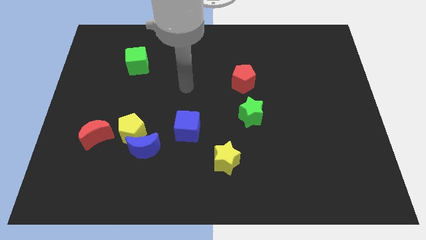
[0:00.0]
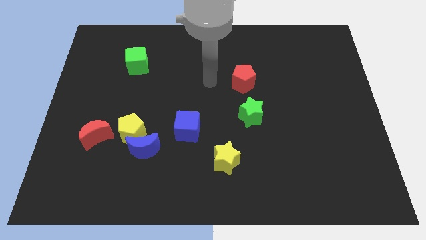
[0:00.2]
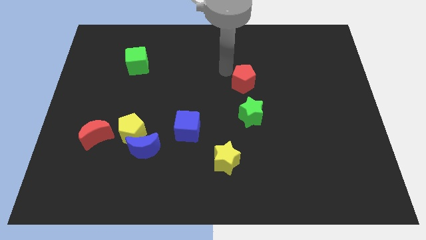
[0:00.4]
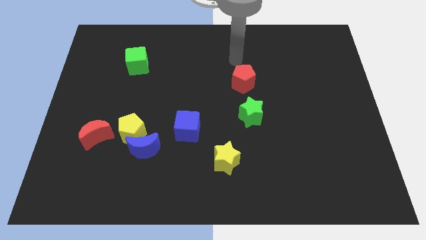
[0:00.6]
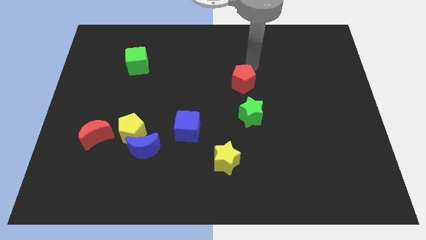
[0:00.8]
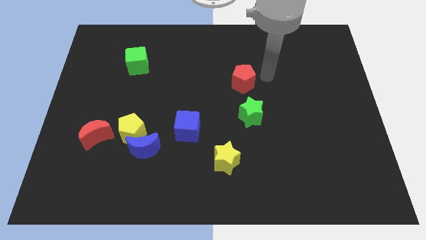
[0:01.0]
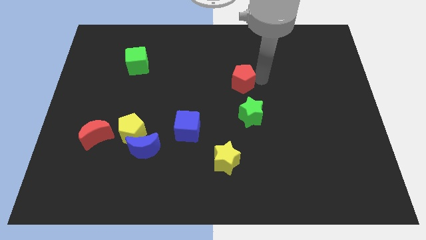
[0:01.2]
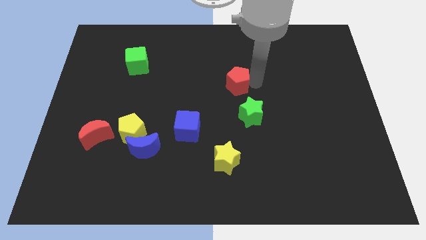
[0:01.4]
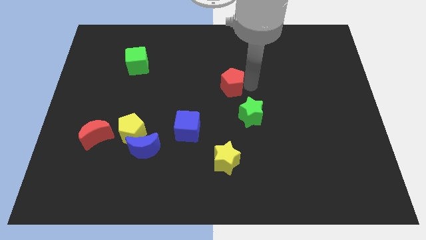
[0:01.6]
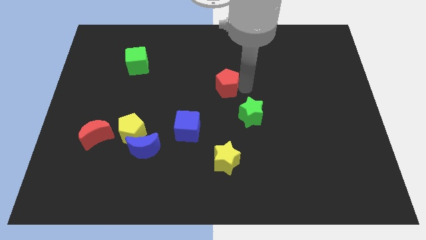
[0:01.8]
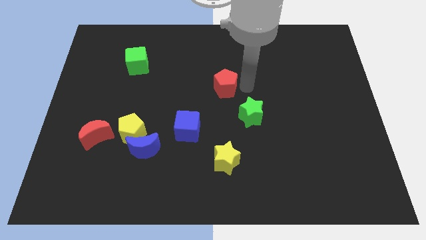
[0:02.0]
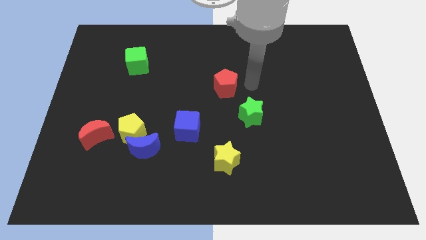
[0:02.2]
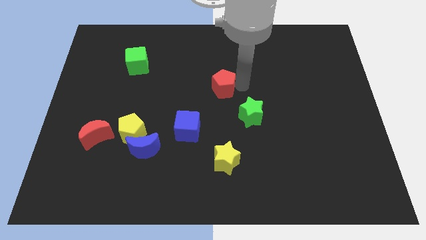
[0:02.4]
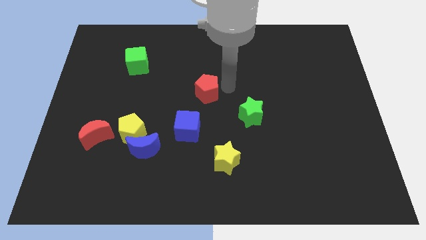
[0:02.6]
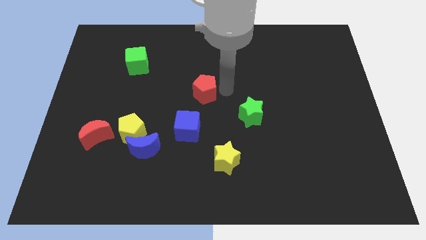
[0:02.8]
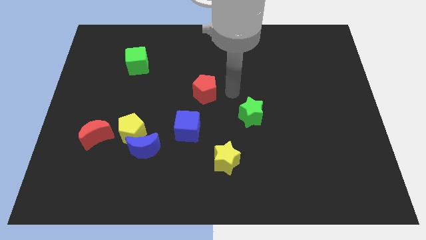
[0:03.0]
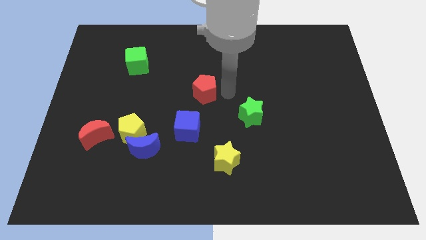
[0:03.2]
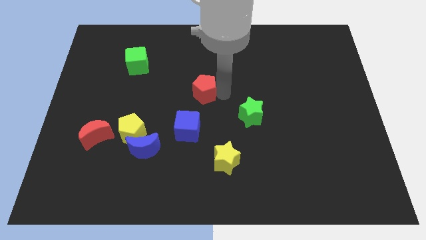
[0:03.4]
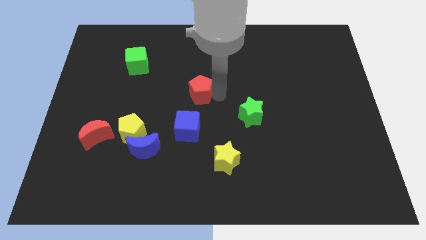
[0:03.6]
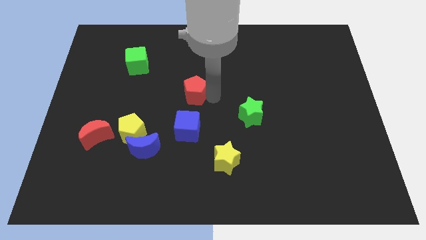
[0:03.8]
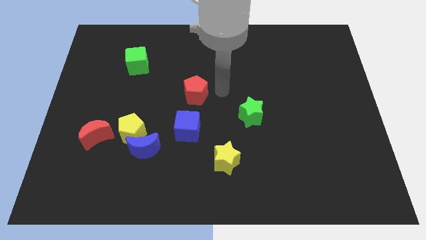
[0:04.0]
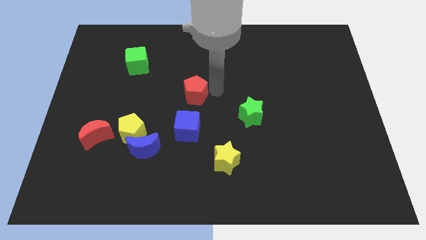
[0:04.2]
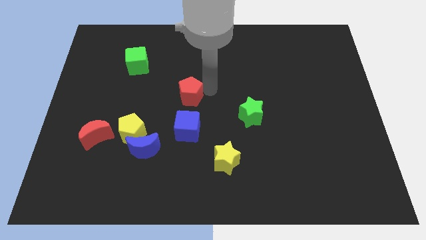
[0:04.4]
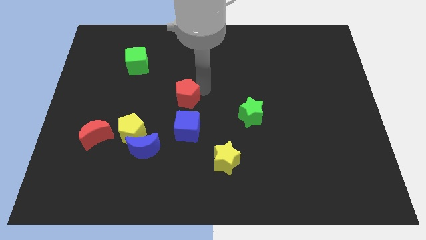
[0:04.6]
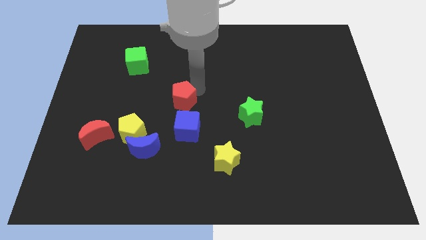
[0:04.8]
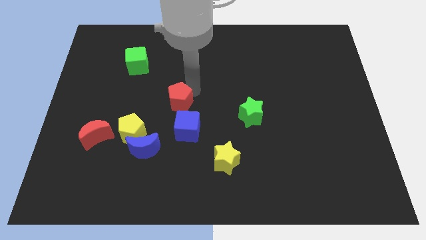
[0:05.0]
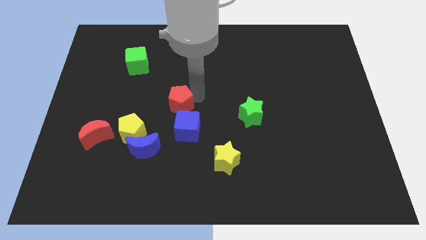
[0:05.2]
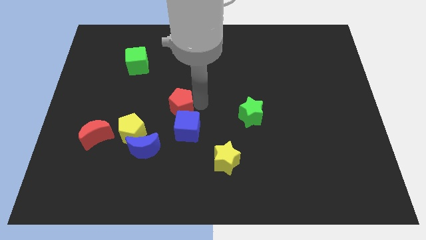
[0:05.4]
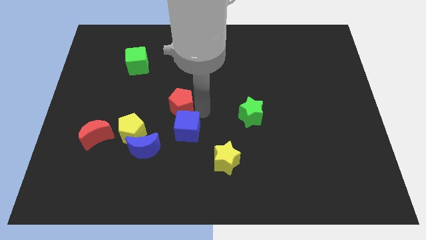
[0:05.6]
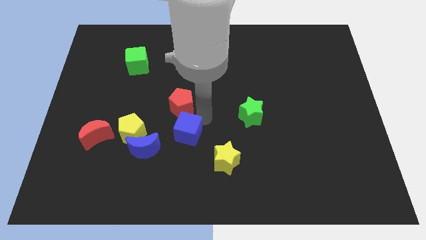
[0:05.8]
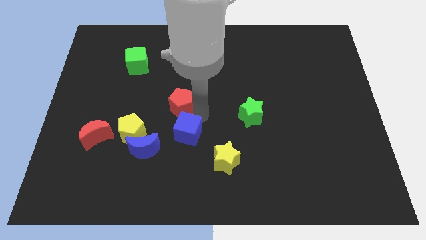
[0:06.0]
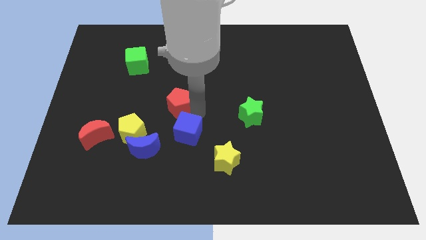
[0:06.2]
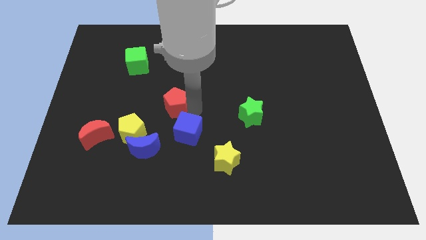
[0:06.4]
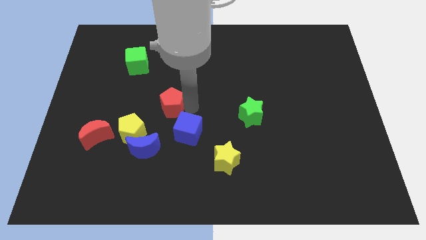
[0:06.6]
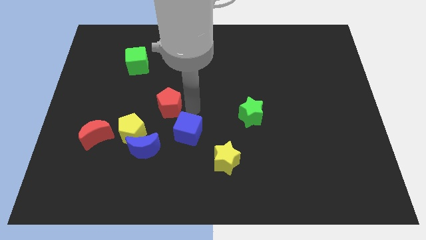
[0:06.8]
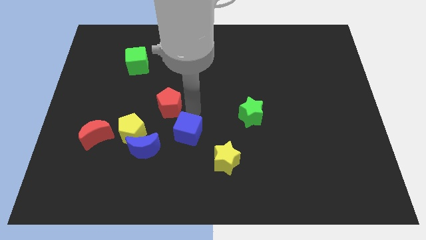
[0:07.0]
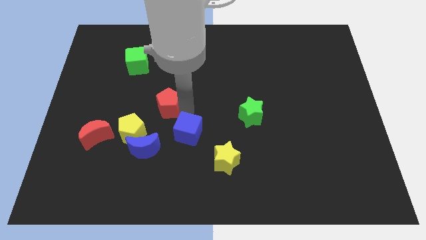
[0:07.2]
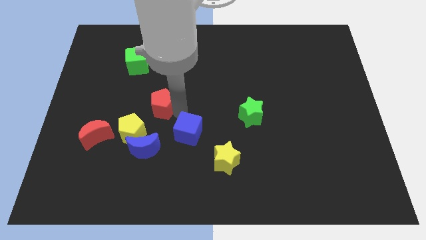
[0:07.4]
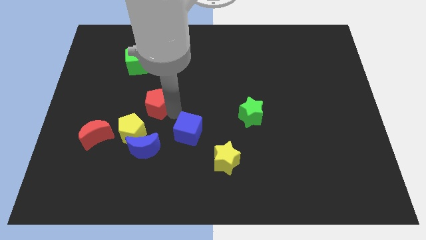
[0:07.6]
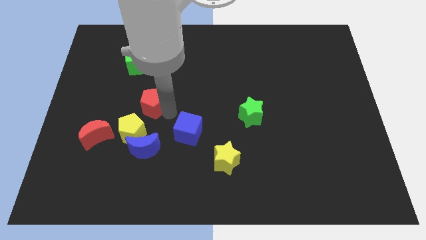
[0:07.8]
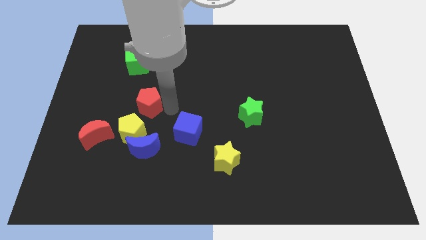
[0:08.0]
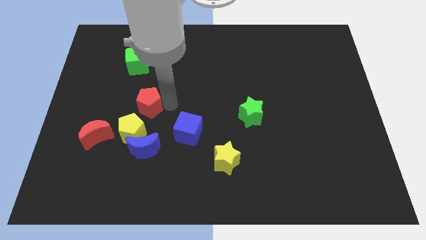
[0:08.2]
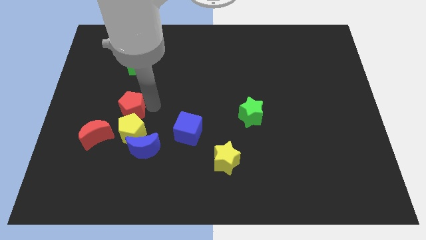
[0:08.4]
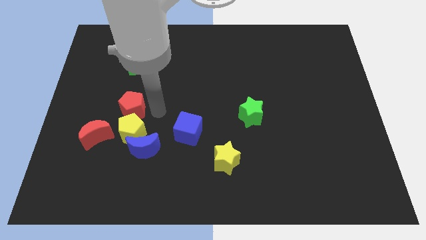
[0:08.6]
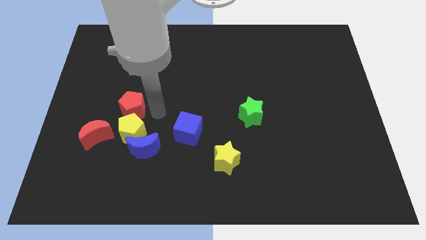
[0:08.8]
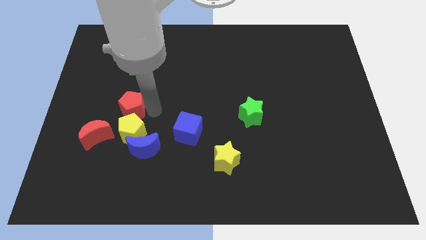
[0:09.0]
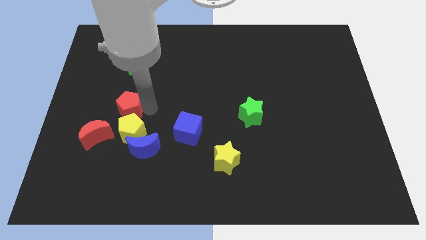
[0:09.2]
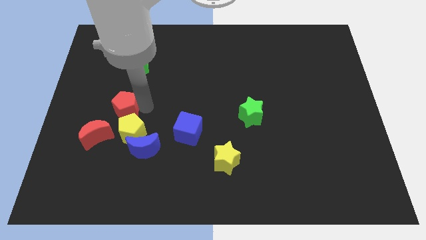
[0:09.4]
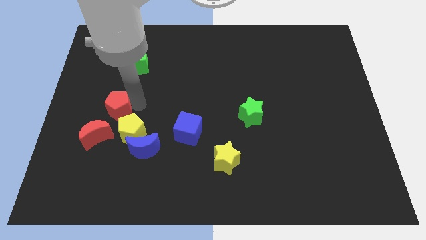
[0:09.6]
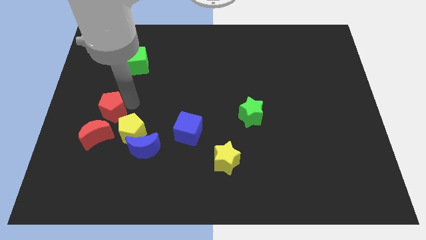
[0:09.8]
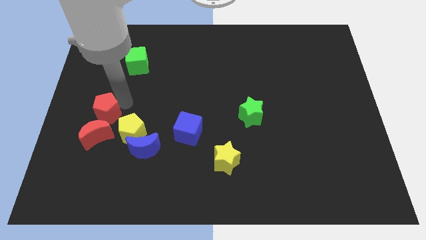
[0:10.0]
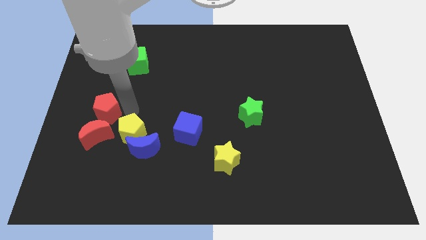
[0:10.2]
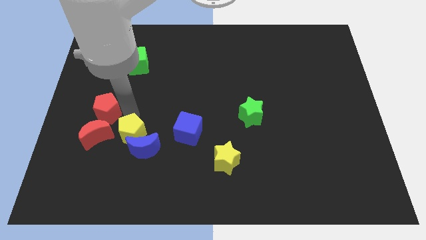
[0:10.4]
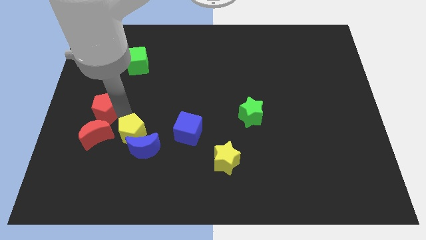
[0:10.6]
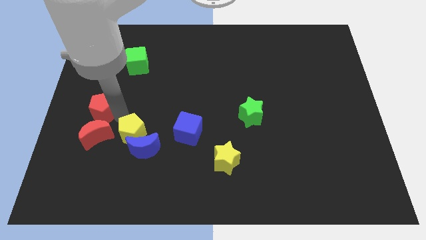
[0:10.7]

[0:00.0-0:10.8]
put the red pentagon to the left side
